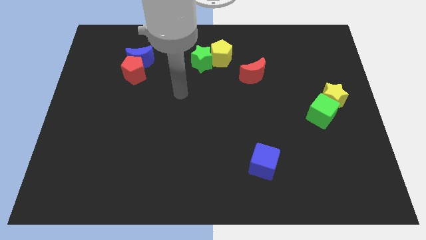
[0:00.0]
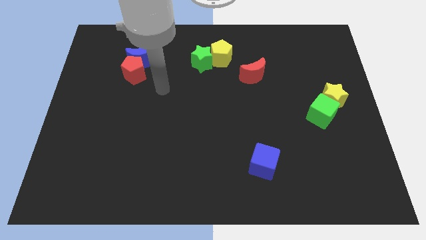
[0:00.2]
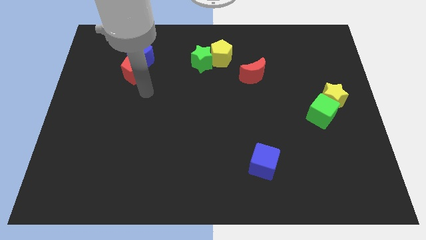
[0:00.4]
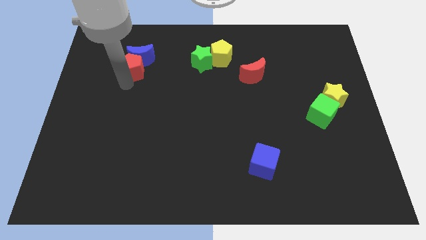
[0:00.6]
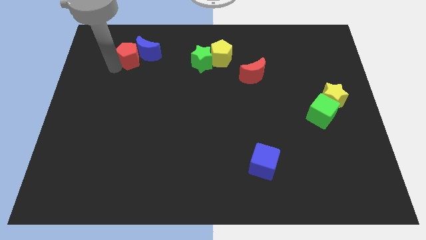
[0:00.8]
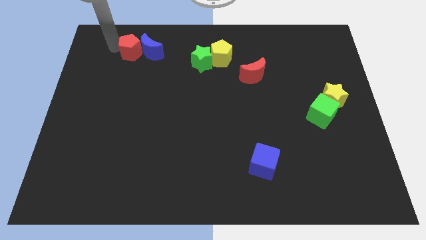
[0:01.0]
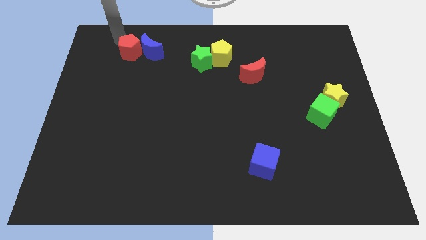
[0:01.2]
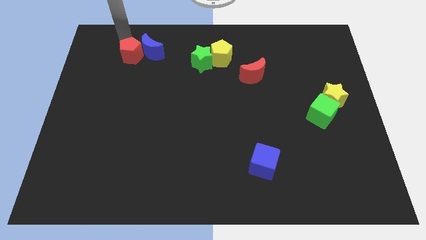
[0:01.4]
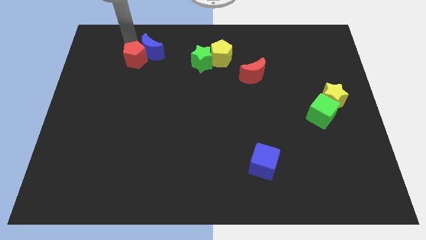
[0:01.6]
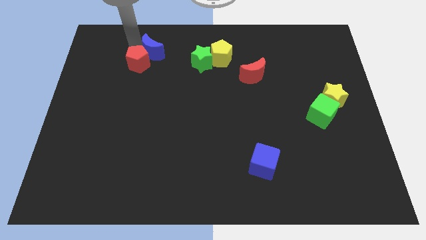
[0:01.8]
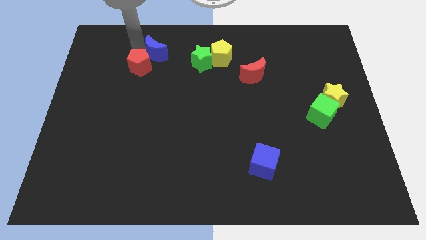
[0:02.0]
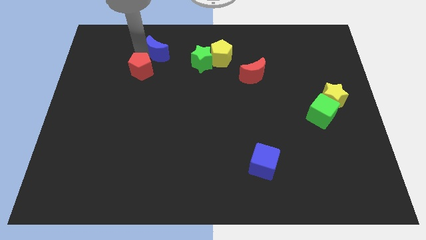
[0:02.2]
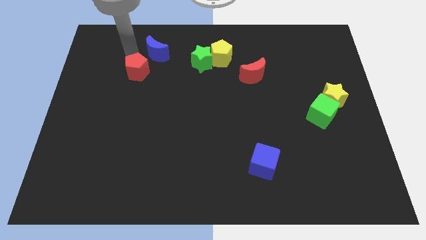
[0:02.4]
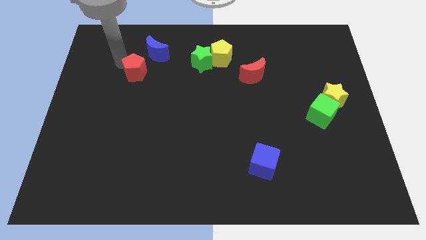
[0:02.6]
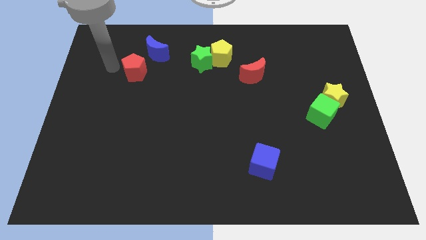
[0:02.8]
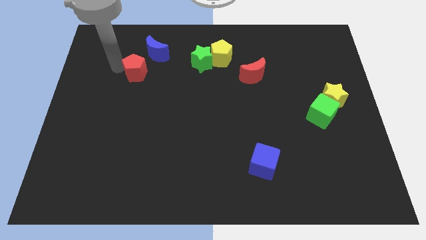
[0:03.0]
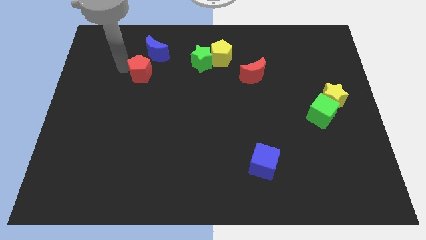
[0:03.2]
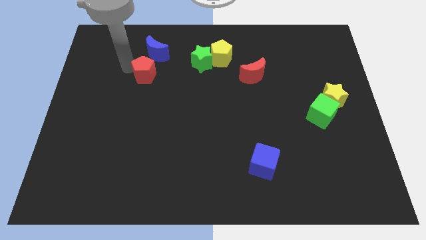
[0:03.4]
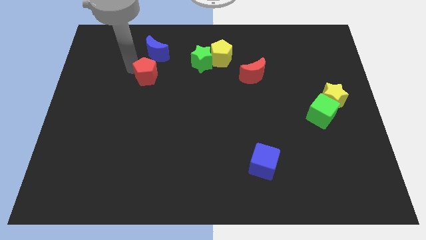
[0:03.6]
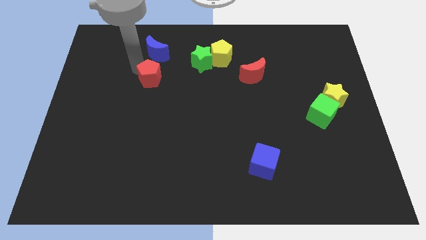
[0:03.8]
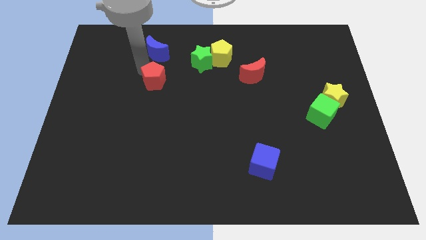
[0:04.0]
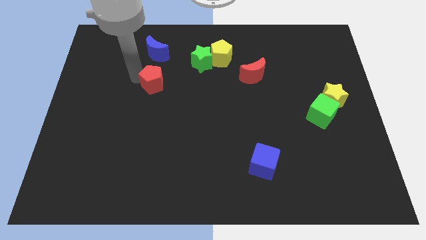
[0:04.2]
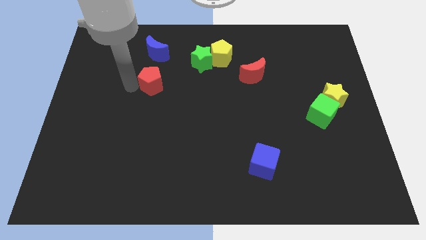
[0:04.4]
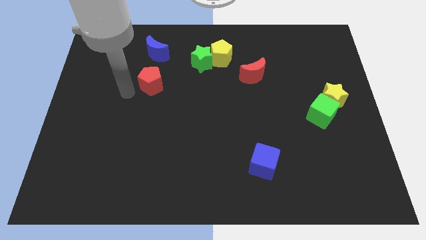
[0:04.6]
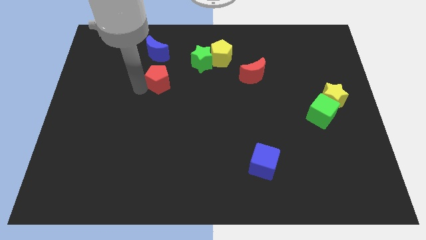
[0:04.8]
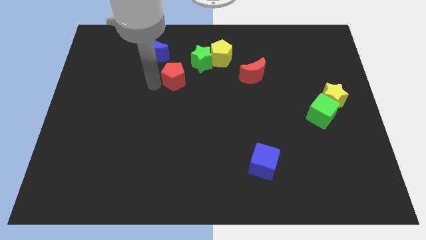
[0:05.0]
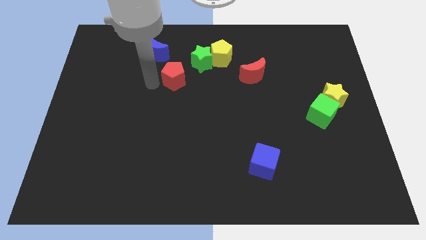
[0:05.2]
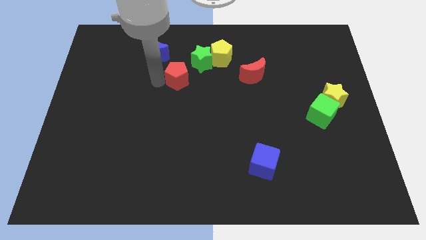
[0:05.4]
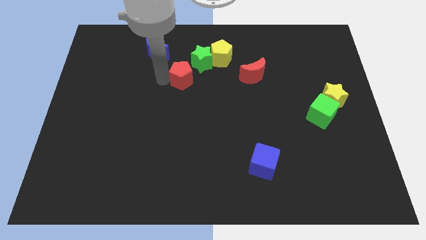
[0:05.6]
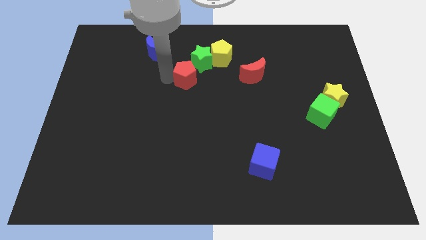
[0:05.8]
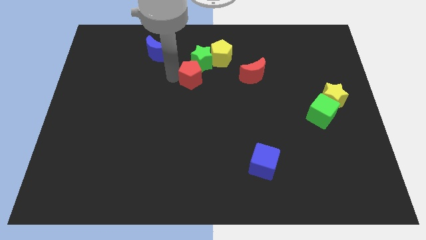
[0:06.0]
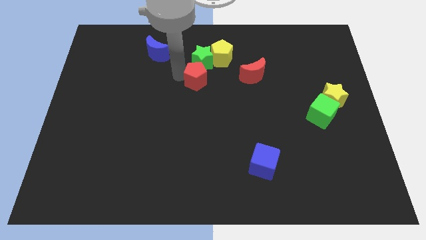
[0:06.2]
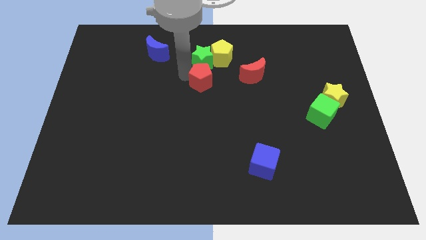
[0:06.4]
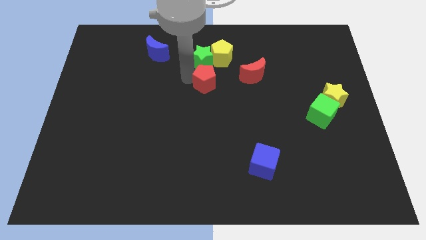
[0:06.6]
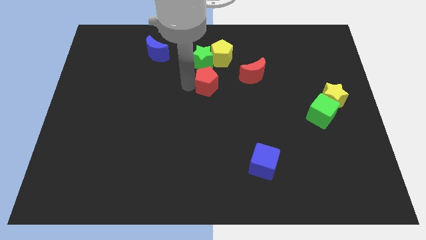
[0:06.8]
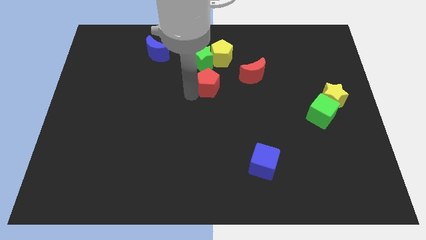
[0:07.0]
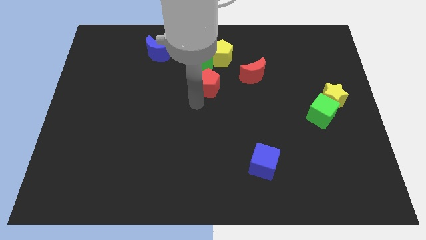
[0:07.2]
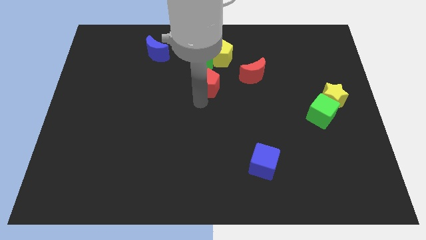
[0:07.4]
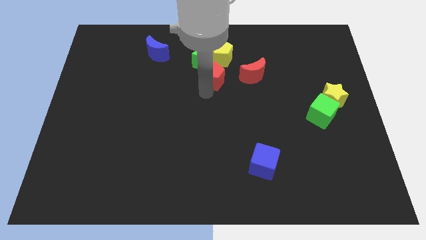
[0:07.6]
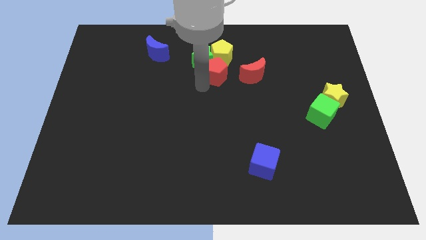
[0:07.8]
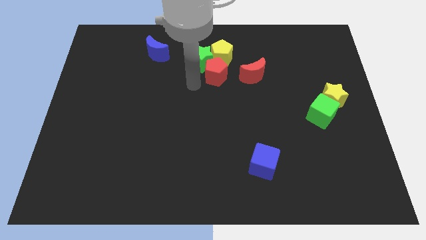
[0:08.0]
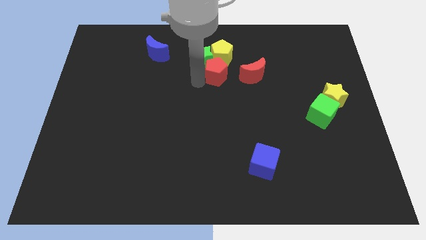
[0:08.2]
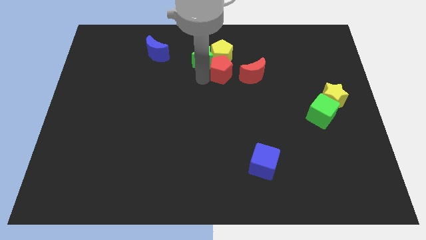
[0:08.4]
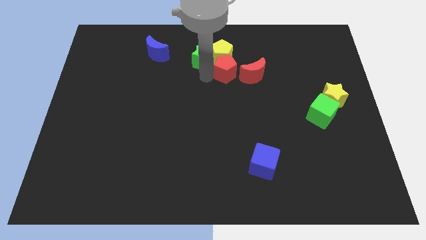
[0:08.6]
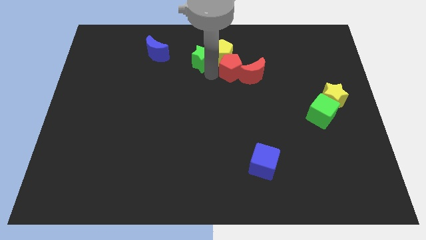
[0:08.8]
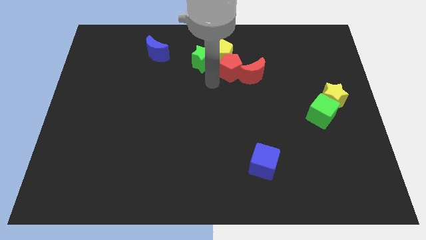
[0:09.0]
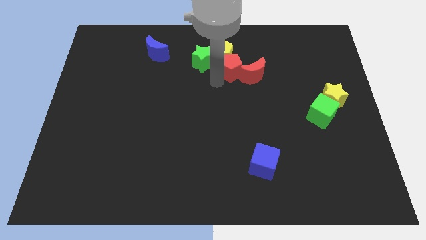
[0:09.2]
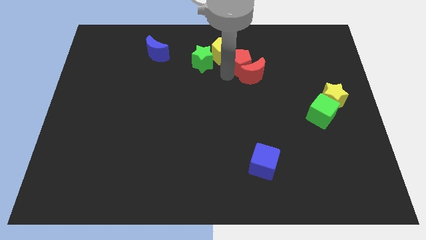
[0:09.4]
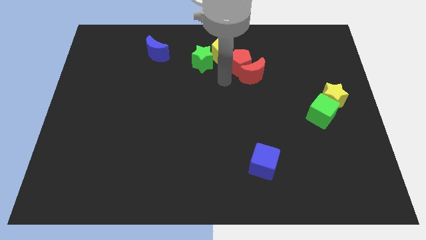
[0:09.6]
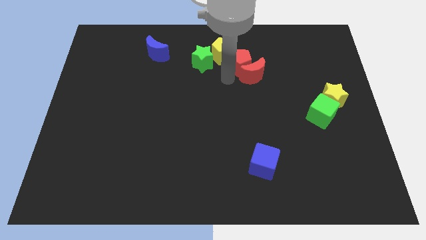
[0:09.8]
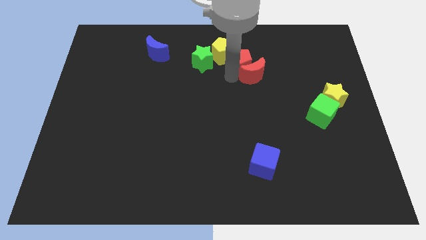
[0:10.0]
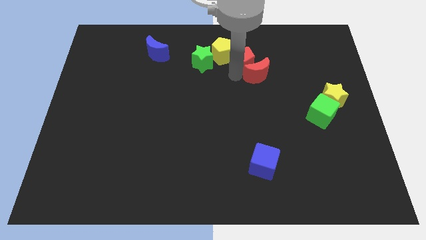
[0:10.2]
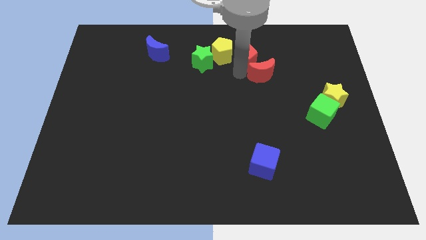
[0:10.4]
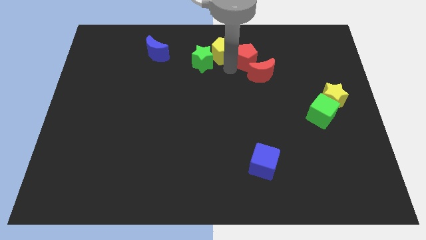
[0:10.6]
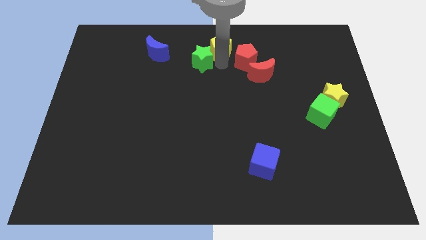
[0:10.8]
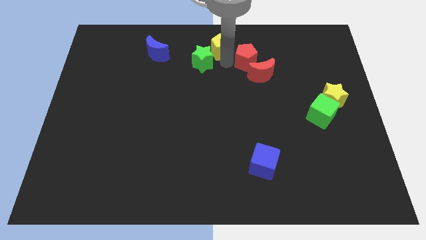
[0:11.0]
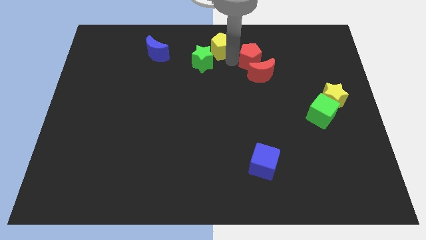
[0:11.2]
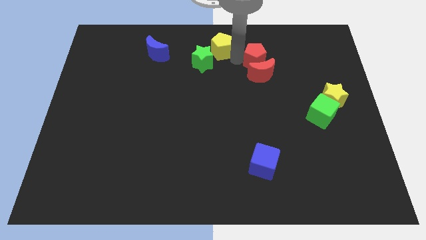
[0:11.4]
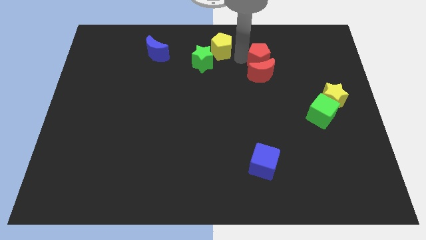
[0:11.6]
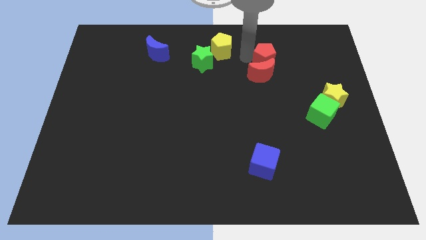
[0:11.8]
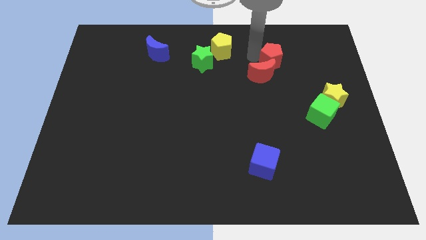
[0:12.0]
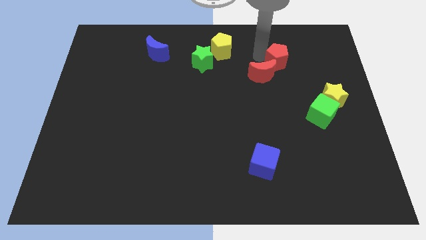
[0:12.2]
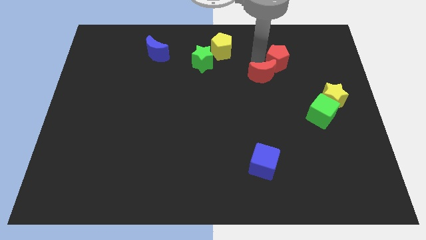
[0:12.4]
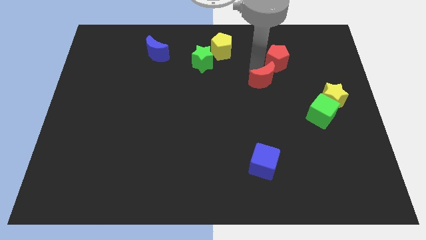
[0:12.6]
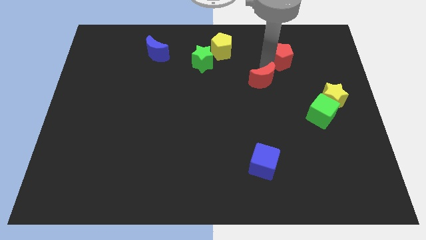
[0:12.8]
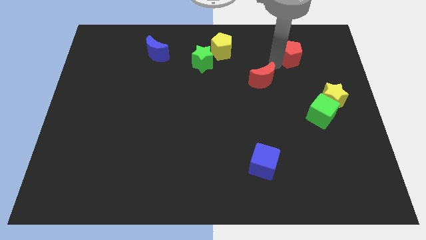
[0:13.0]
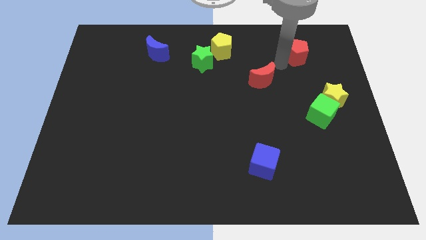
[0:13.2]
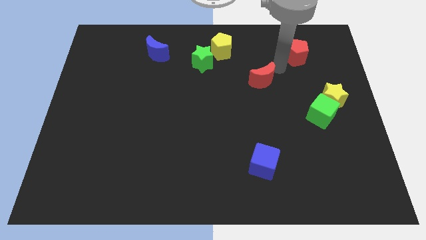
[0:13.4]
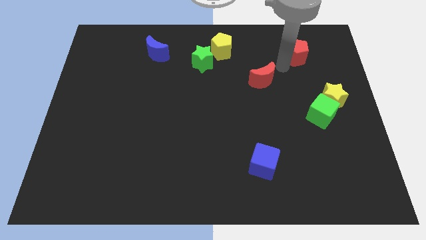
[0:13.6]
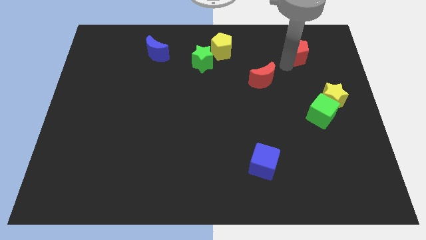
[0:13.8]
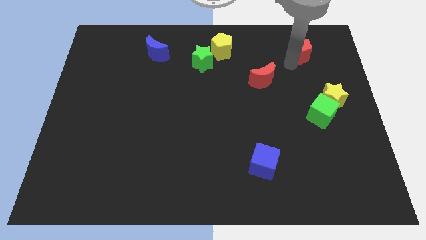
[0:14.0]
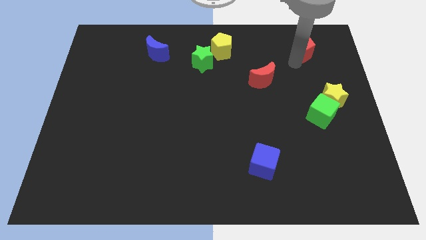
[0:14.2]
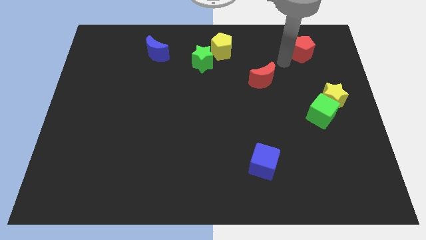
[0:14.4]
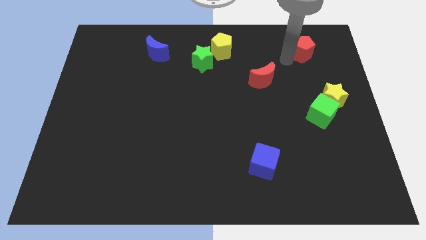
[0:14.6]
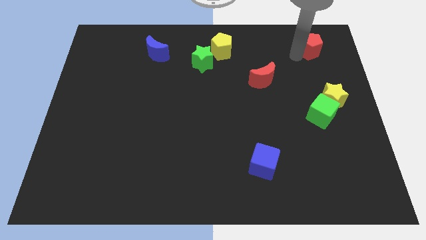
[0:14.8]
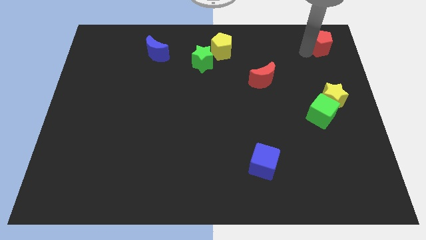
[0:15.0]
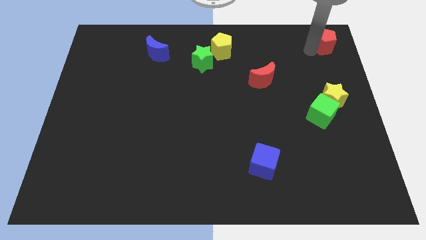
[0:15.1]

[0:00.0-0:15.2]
push the red pentagon to the top right
